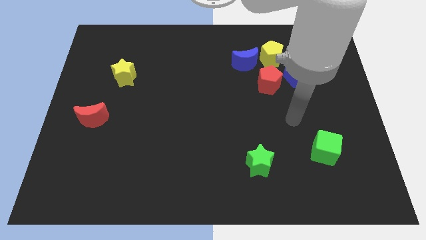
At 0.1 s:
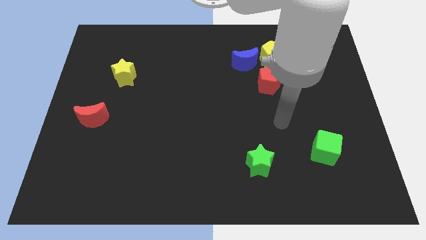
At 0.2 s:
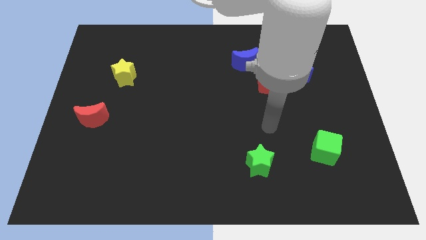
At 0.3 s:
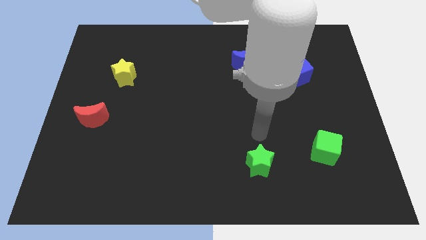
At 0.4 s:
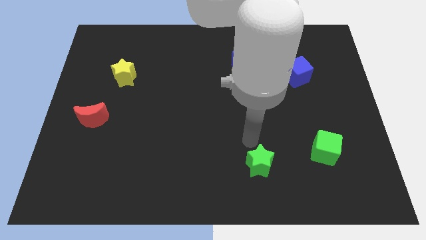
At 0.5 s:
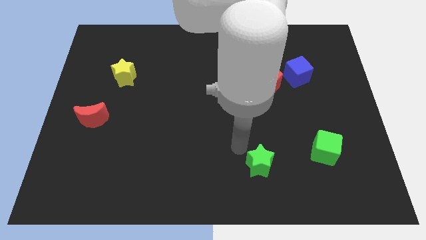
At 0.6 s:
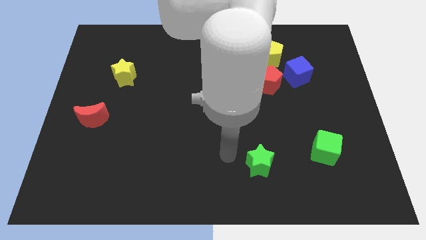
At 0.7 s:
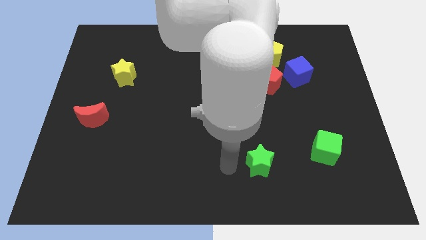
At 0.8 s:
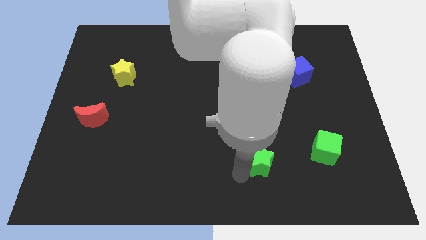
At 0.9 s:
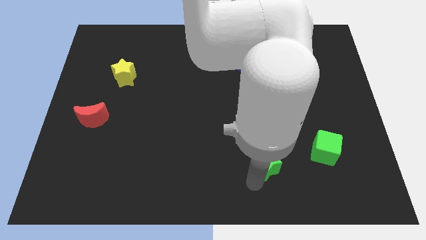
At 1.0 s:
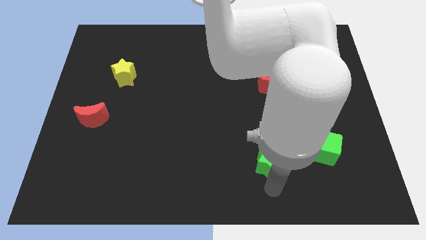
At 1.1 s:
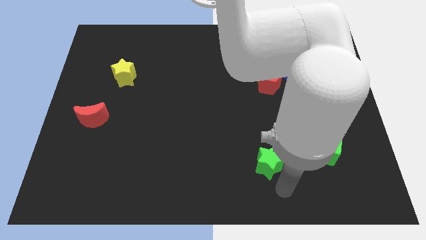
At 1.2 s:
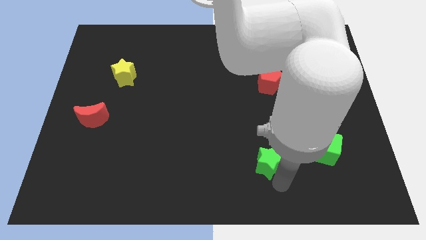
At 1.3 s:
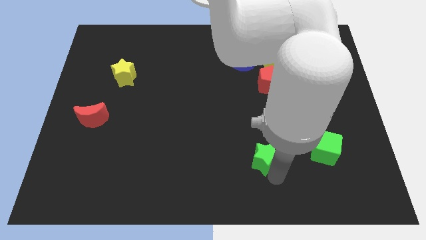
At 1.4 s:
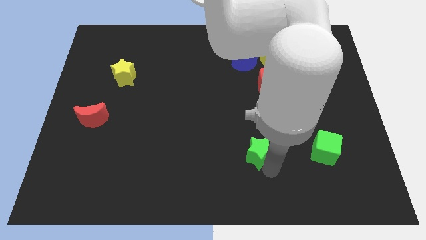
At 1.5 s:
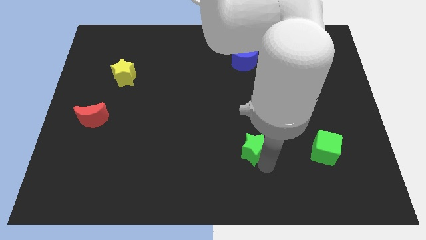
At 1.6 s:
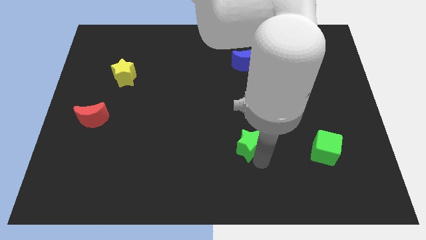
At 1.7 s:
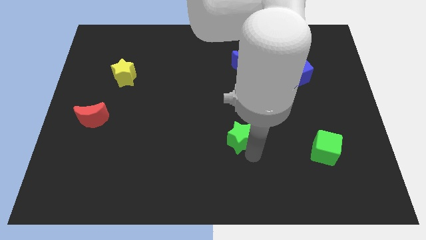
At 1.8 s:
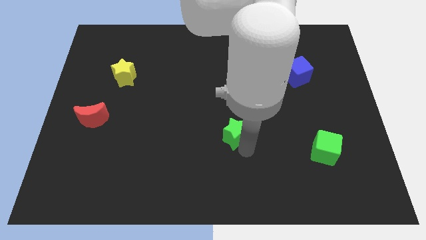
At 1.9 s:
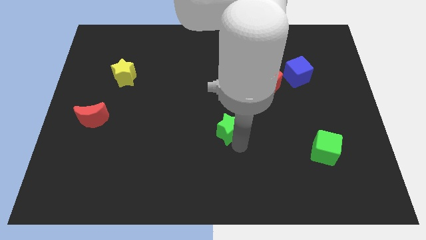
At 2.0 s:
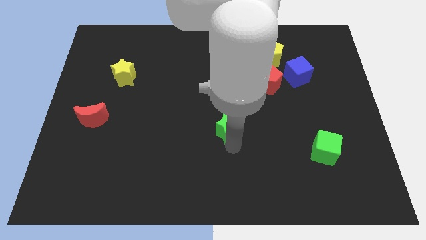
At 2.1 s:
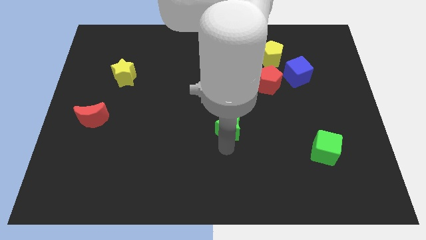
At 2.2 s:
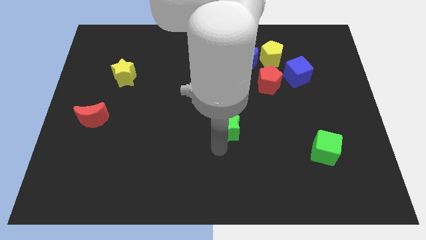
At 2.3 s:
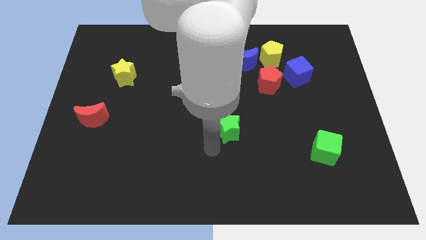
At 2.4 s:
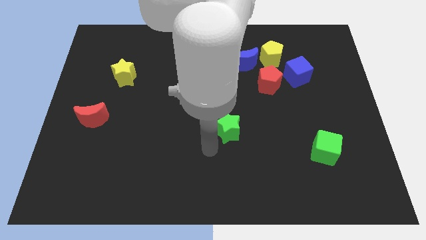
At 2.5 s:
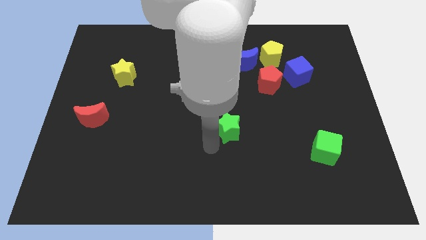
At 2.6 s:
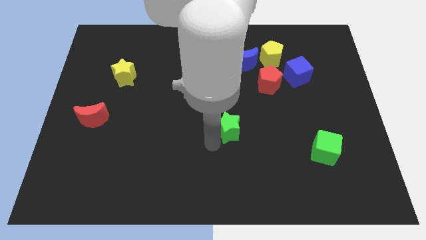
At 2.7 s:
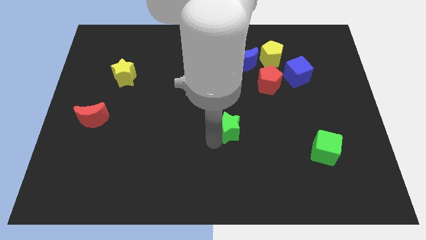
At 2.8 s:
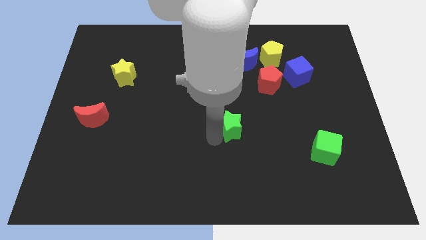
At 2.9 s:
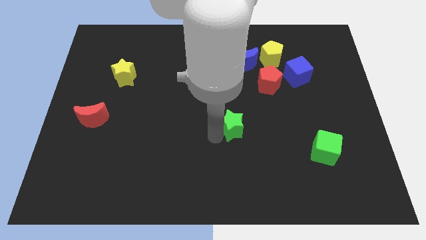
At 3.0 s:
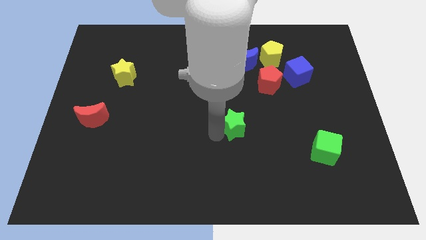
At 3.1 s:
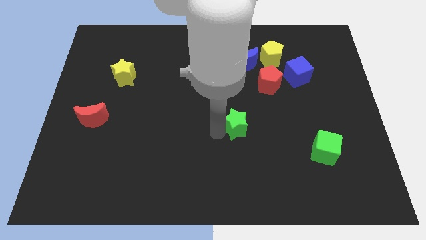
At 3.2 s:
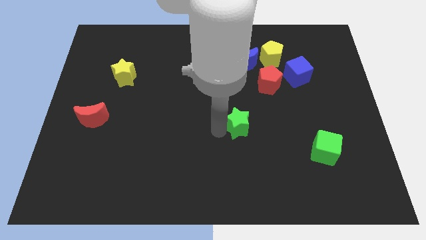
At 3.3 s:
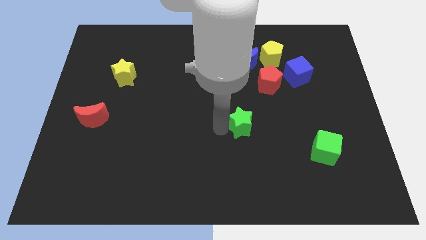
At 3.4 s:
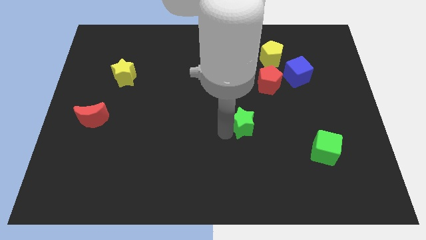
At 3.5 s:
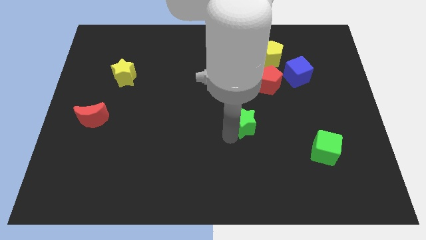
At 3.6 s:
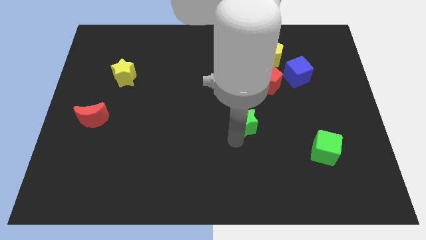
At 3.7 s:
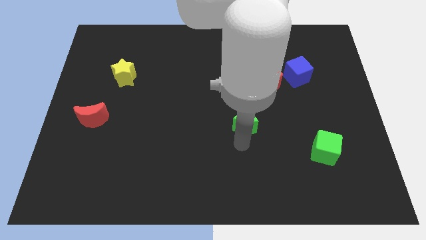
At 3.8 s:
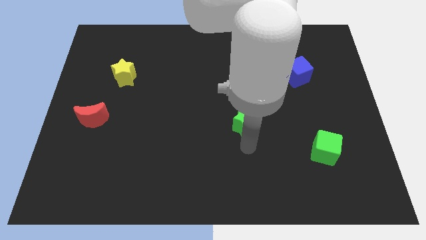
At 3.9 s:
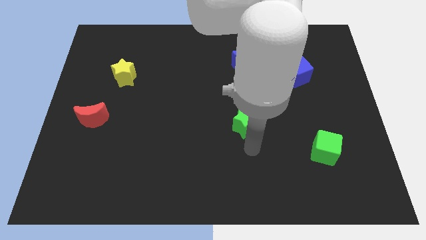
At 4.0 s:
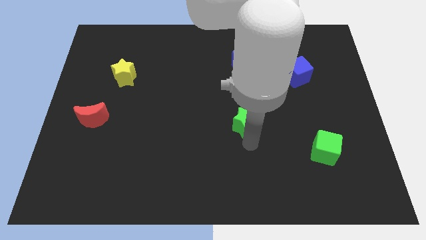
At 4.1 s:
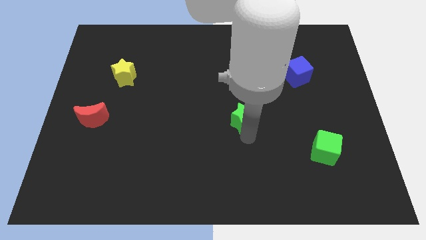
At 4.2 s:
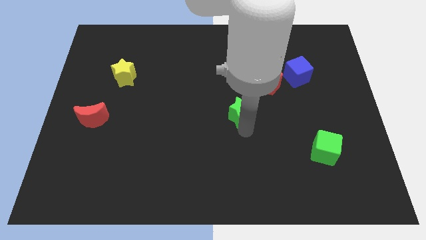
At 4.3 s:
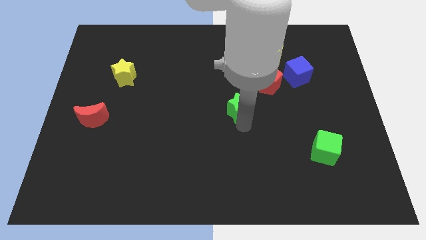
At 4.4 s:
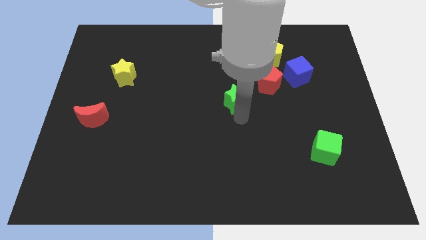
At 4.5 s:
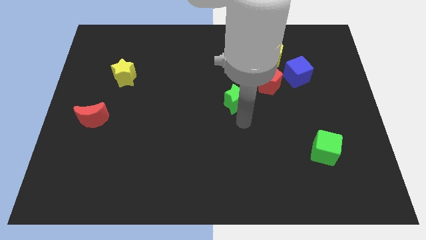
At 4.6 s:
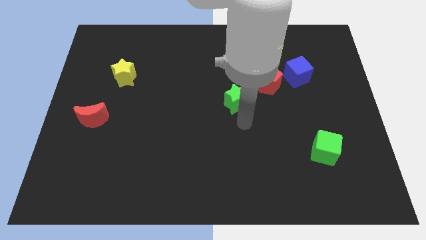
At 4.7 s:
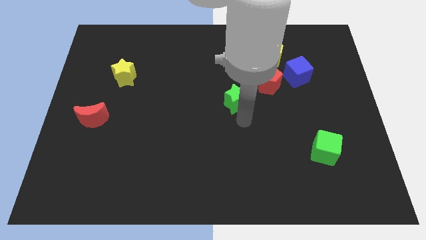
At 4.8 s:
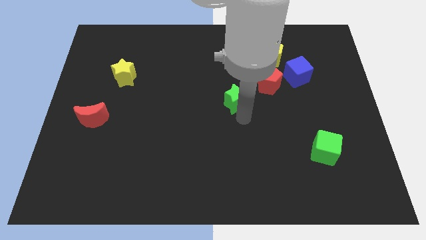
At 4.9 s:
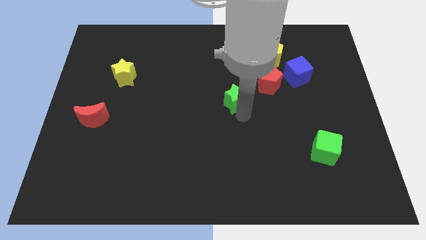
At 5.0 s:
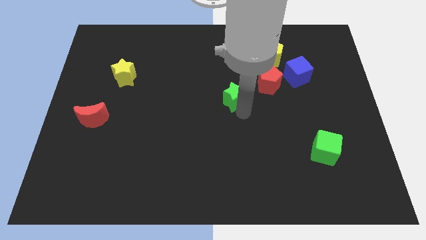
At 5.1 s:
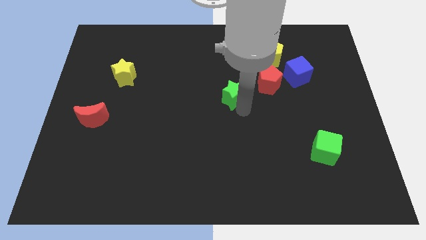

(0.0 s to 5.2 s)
slide the green star left of the red pentagon

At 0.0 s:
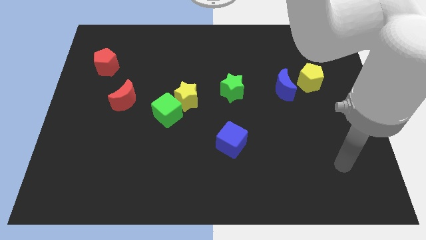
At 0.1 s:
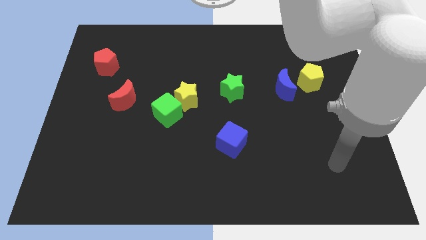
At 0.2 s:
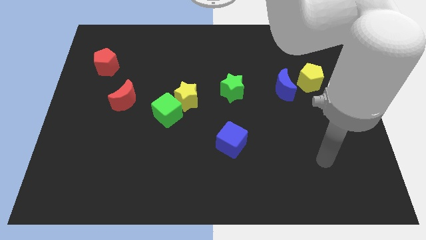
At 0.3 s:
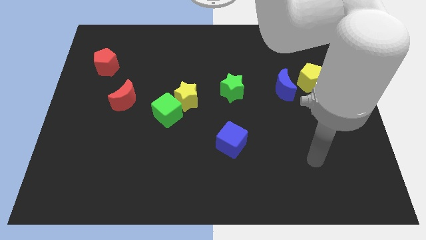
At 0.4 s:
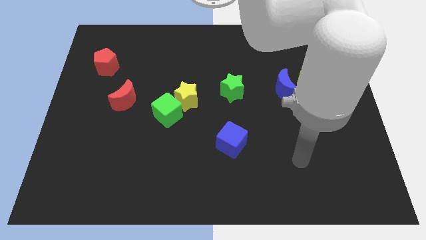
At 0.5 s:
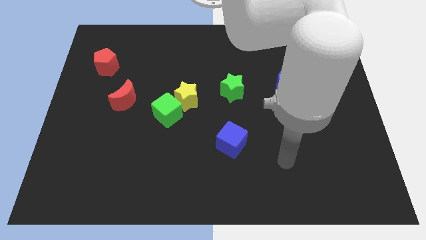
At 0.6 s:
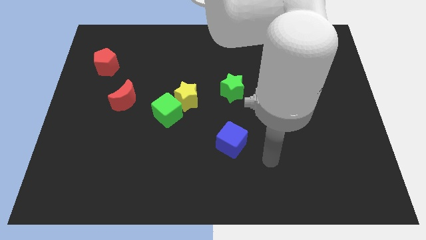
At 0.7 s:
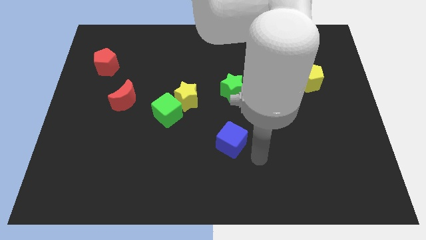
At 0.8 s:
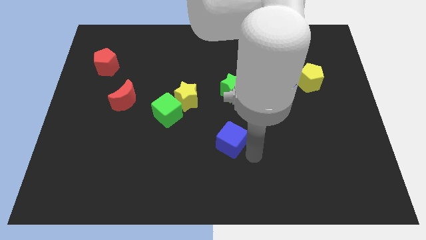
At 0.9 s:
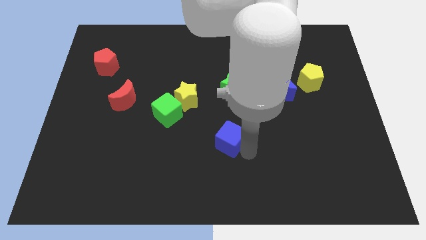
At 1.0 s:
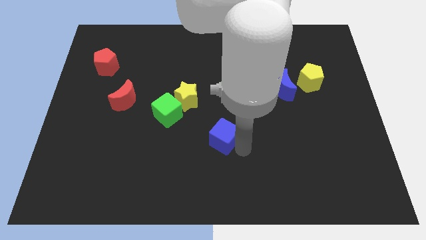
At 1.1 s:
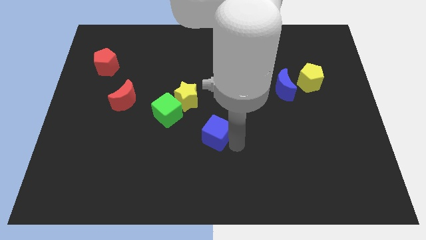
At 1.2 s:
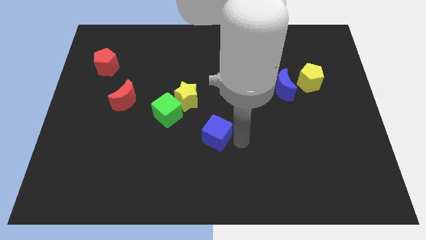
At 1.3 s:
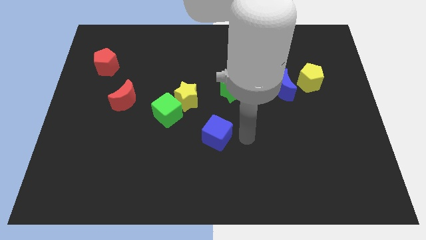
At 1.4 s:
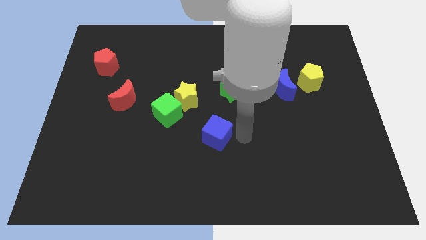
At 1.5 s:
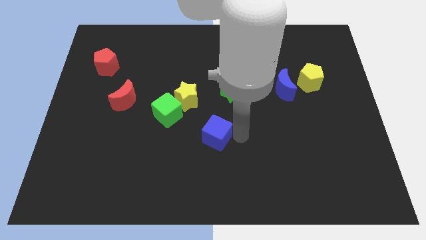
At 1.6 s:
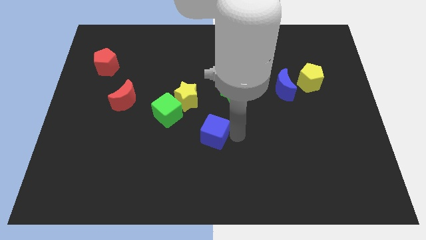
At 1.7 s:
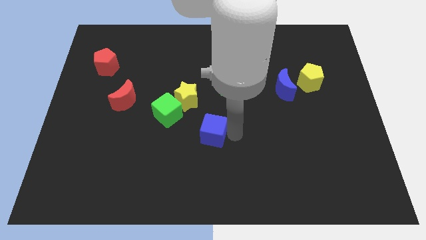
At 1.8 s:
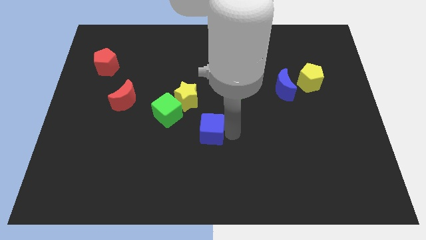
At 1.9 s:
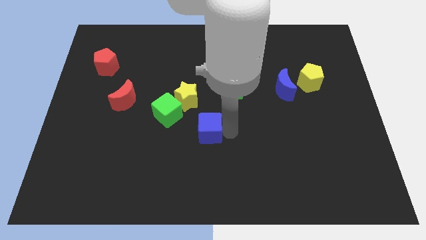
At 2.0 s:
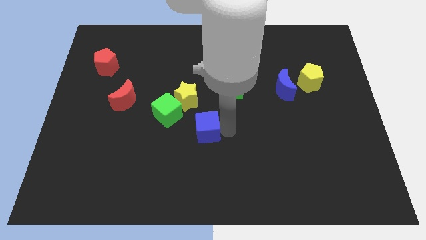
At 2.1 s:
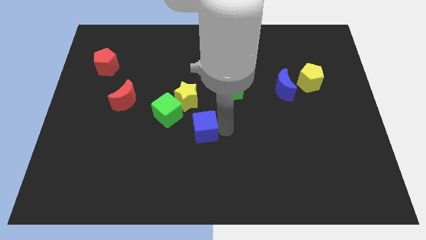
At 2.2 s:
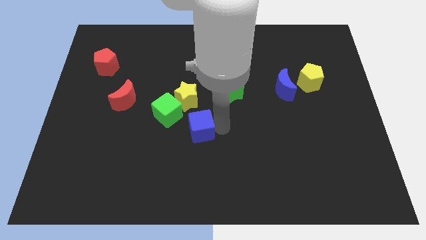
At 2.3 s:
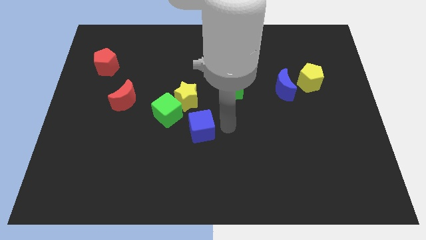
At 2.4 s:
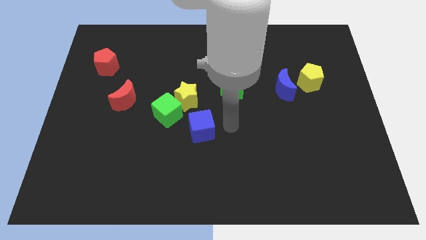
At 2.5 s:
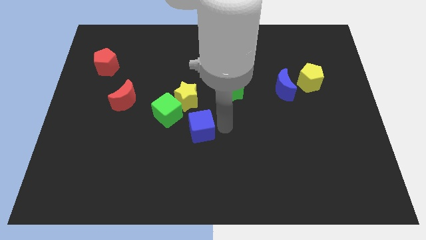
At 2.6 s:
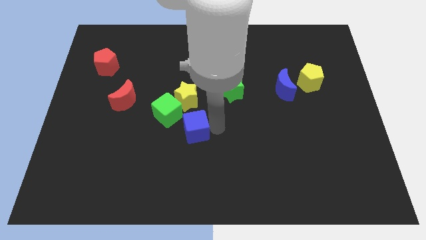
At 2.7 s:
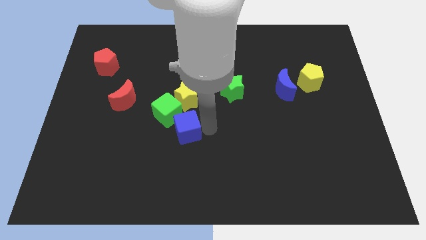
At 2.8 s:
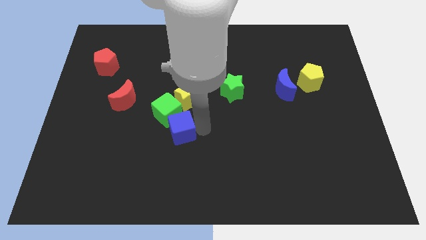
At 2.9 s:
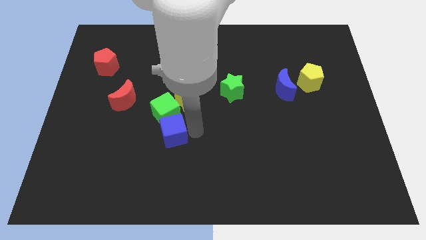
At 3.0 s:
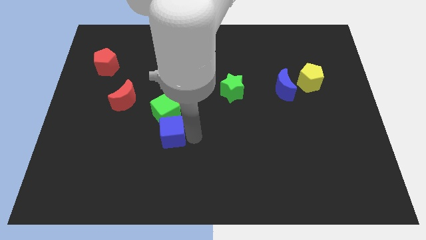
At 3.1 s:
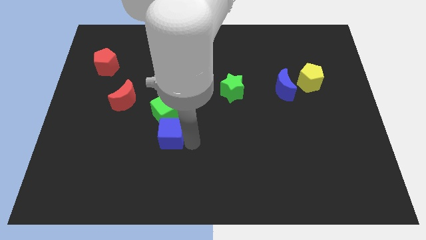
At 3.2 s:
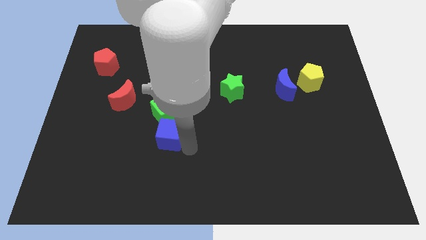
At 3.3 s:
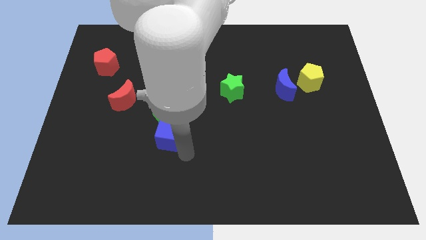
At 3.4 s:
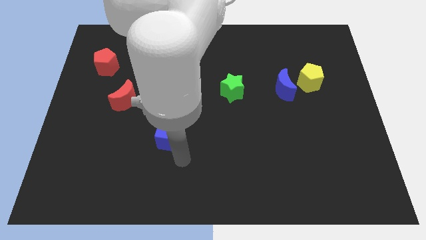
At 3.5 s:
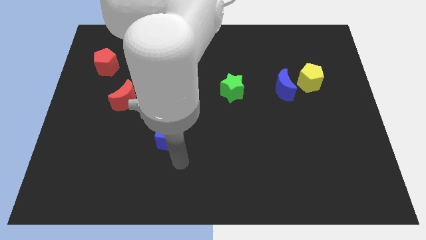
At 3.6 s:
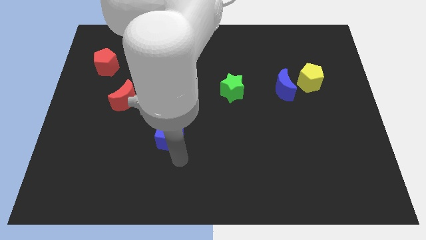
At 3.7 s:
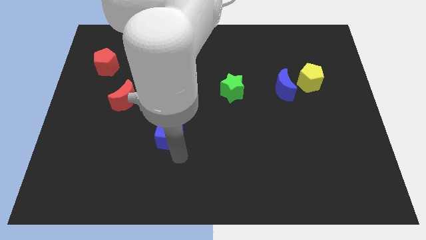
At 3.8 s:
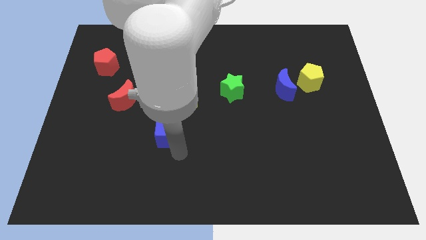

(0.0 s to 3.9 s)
slide the blue cube diagonally down and to the left of the yellow star
